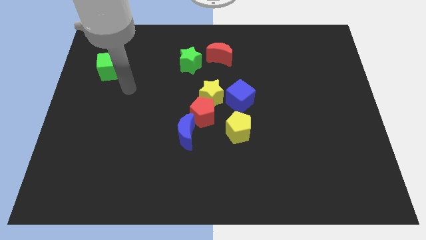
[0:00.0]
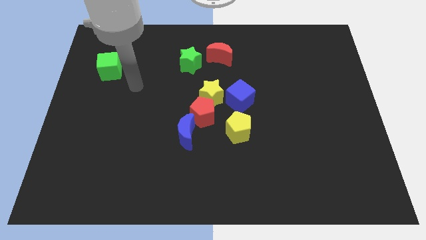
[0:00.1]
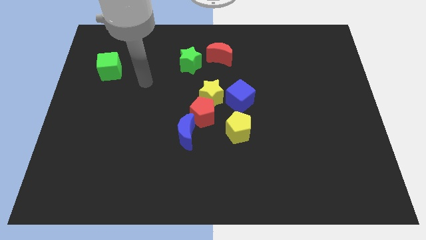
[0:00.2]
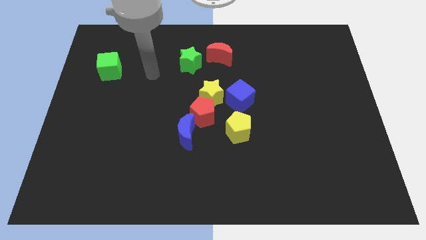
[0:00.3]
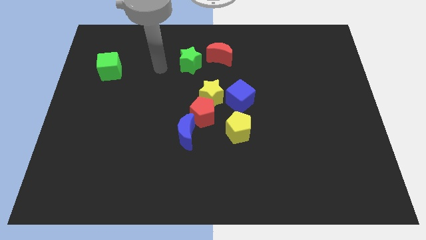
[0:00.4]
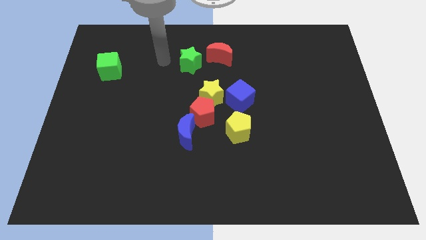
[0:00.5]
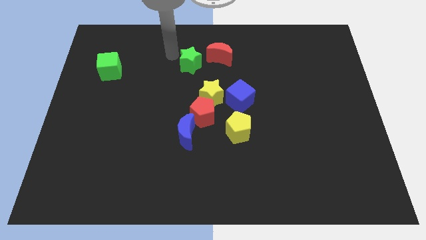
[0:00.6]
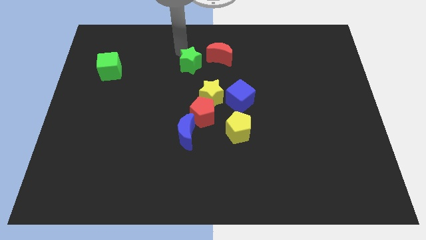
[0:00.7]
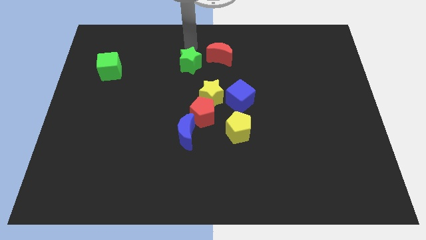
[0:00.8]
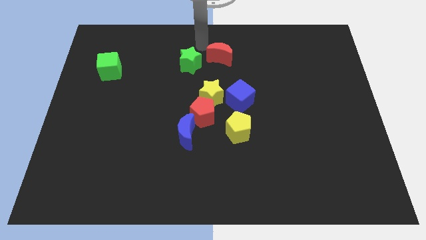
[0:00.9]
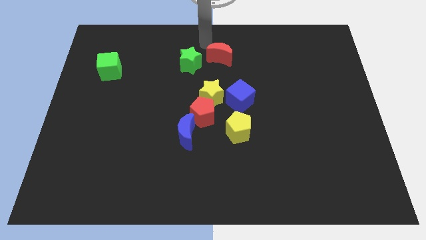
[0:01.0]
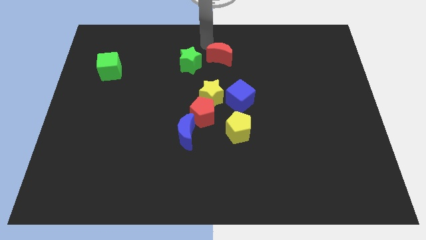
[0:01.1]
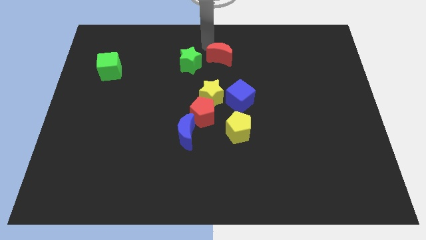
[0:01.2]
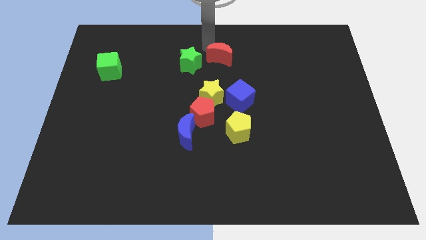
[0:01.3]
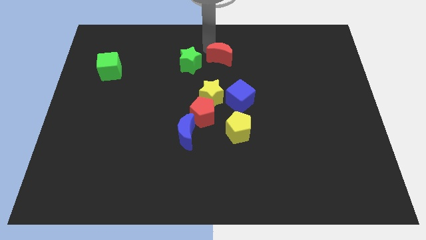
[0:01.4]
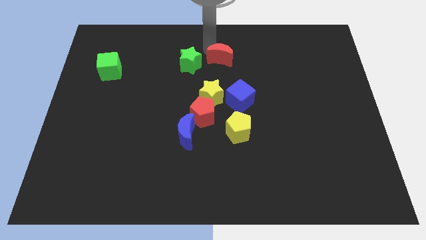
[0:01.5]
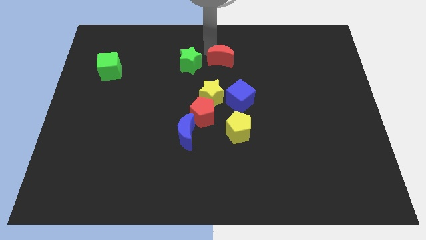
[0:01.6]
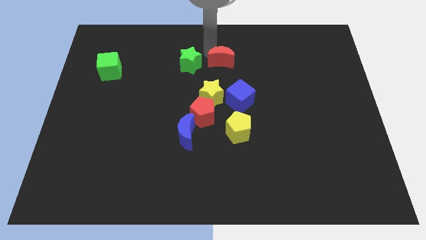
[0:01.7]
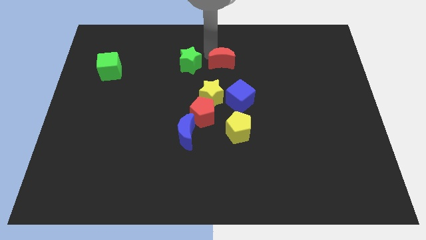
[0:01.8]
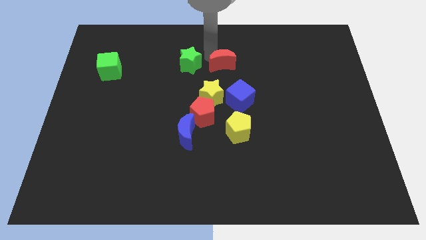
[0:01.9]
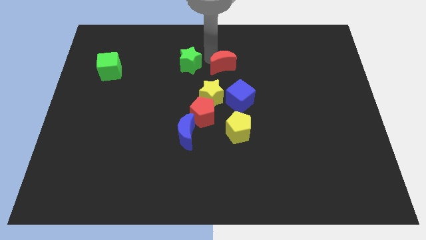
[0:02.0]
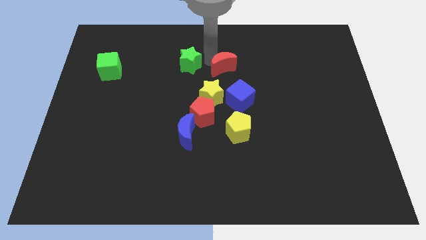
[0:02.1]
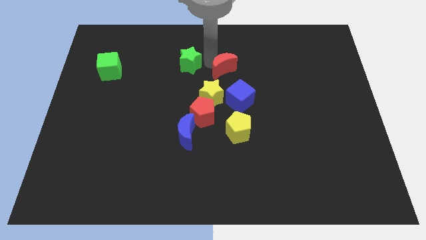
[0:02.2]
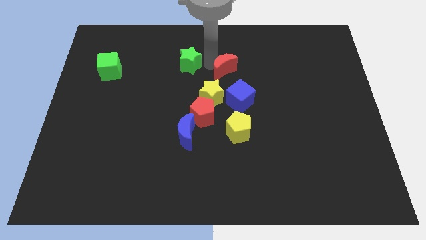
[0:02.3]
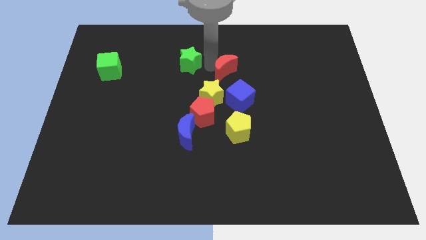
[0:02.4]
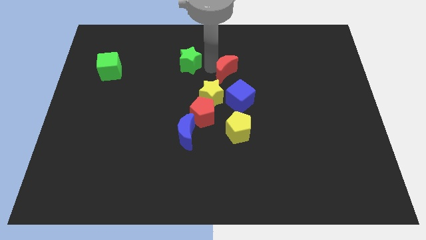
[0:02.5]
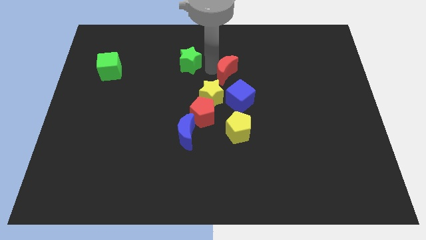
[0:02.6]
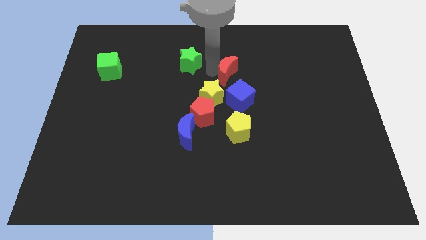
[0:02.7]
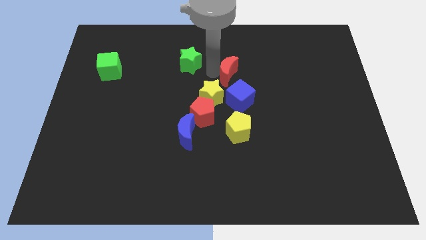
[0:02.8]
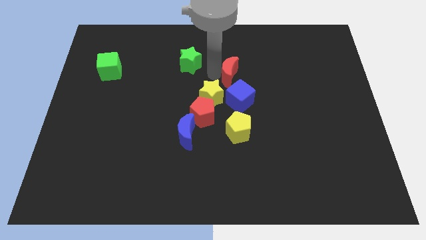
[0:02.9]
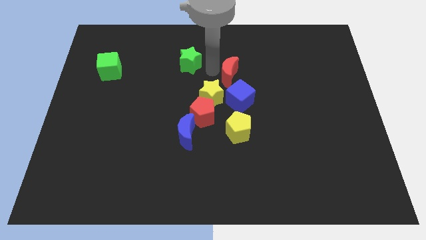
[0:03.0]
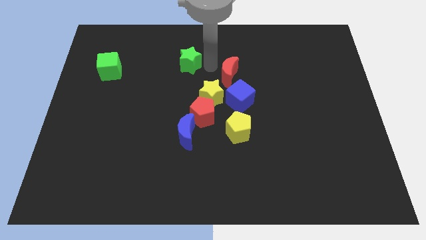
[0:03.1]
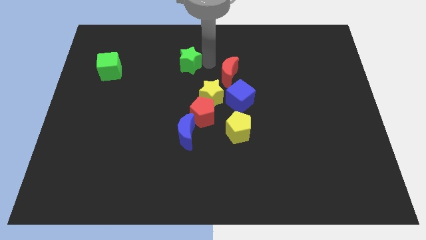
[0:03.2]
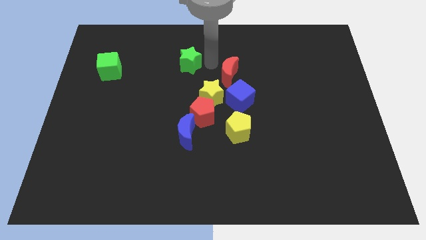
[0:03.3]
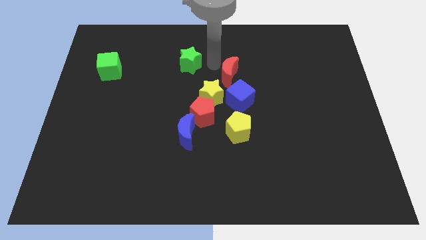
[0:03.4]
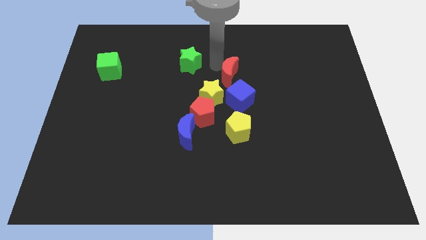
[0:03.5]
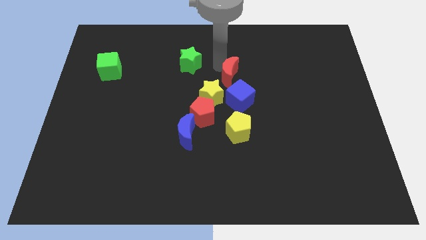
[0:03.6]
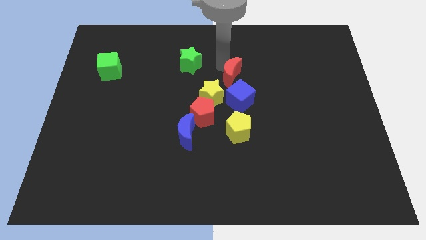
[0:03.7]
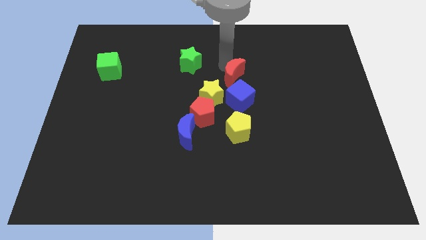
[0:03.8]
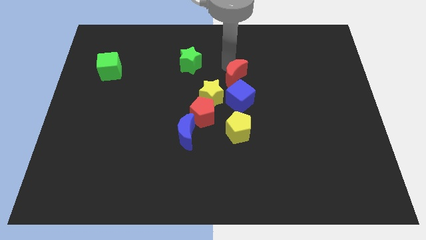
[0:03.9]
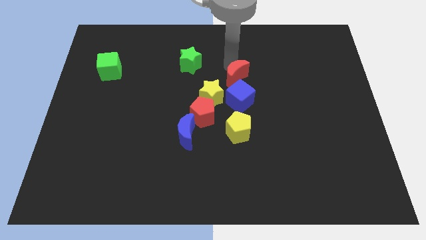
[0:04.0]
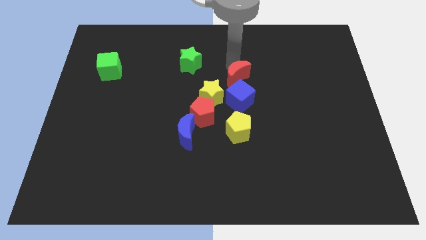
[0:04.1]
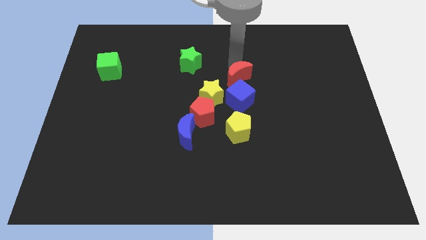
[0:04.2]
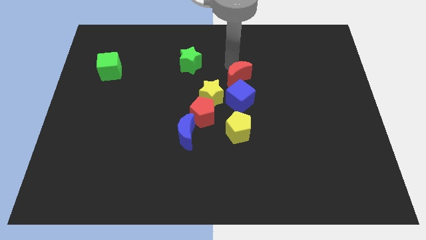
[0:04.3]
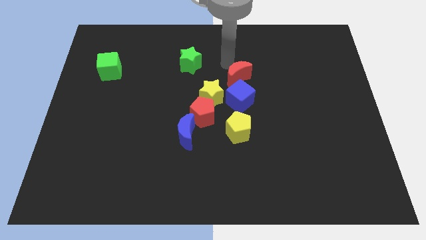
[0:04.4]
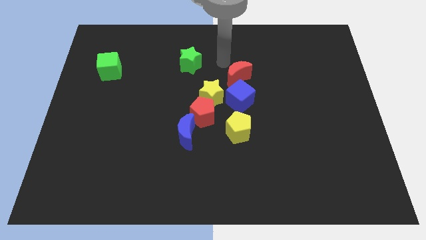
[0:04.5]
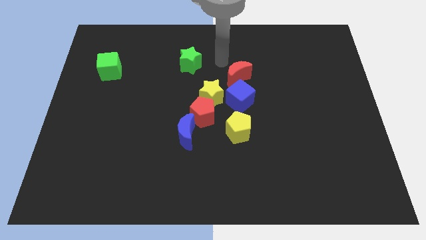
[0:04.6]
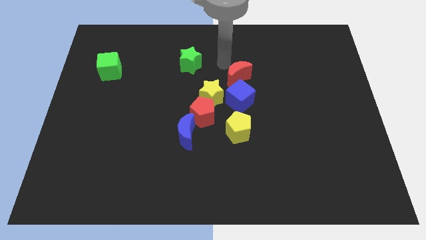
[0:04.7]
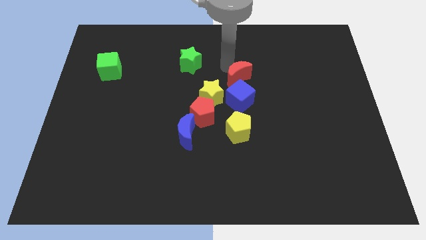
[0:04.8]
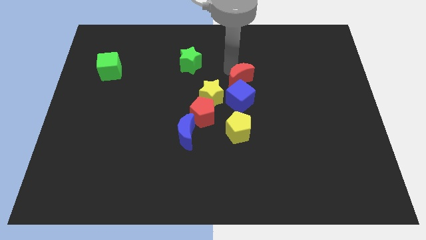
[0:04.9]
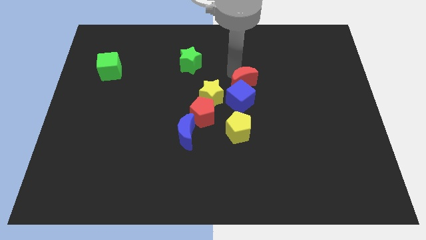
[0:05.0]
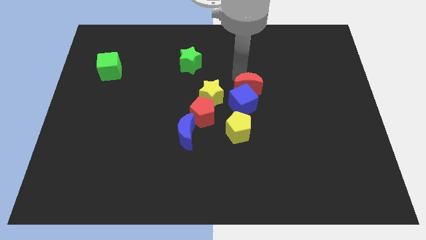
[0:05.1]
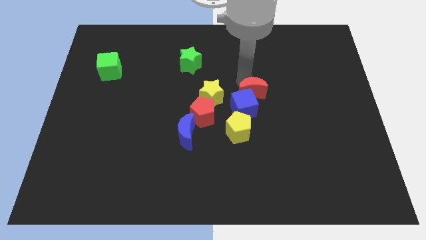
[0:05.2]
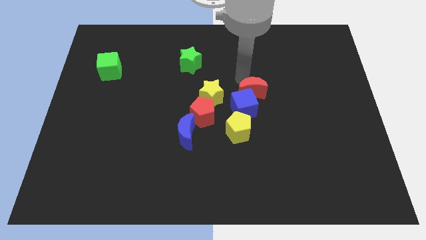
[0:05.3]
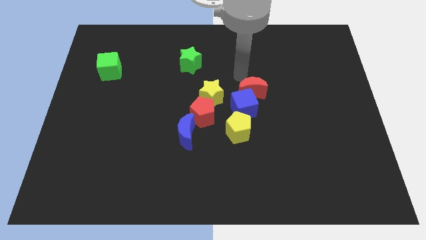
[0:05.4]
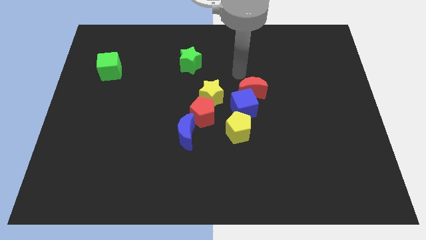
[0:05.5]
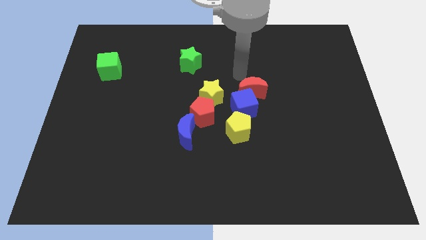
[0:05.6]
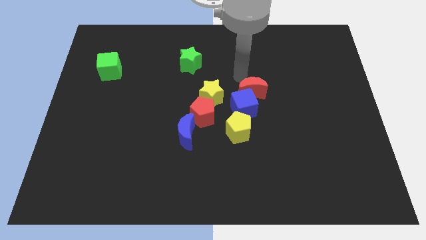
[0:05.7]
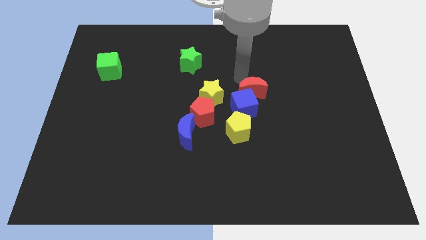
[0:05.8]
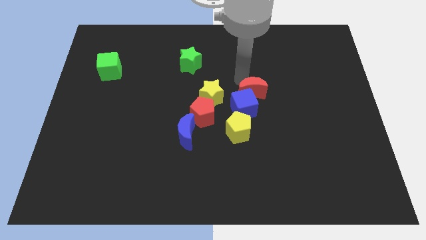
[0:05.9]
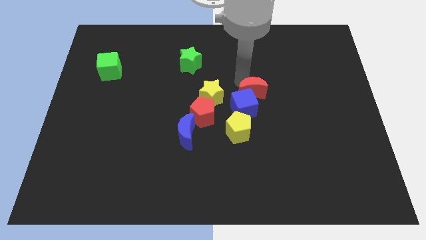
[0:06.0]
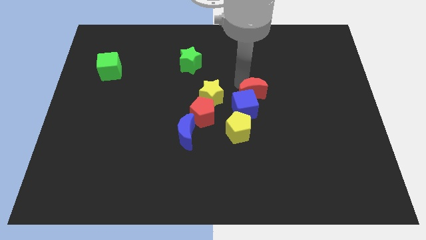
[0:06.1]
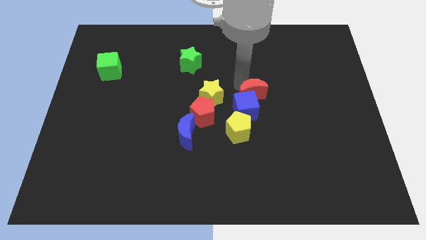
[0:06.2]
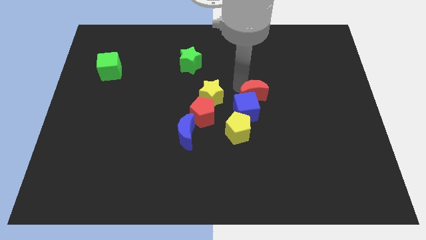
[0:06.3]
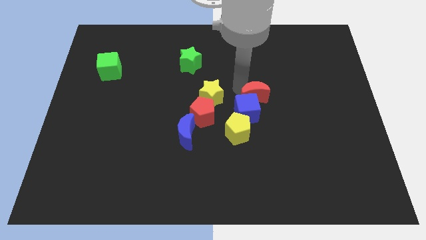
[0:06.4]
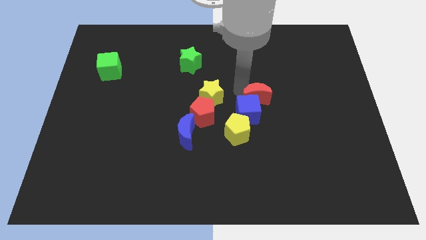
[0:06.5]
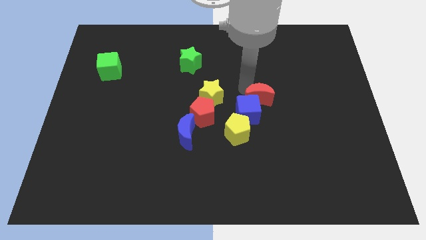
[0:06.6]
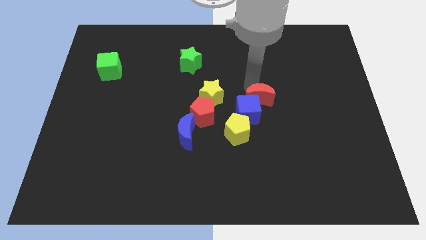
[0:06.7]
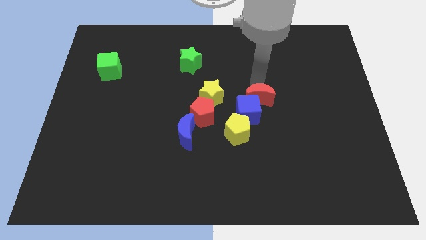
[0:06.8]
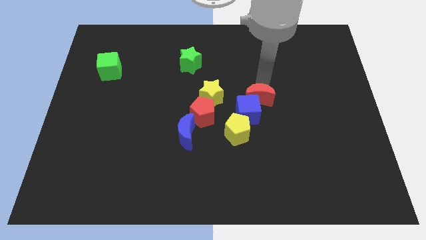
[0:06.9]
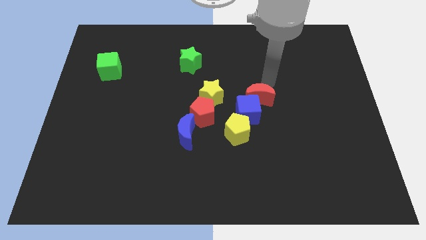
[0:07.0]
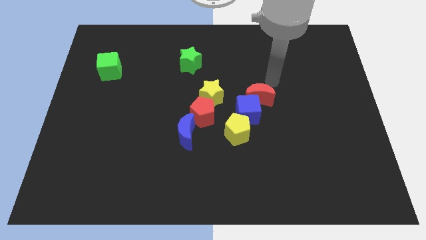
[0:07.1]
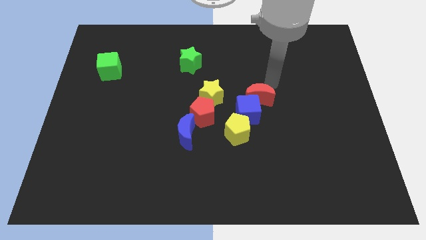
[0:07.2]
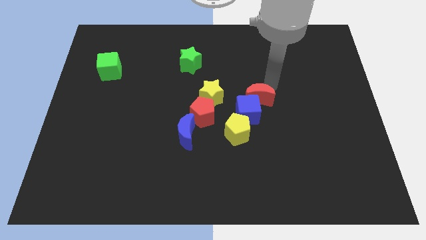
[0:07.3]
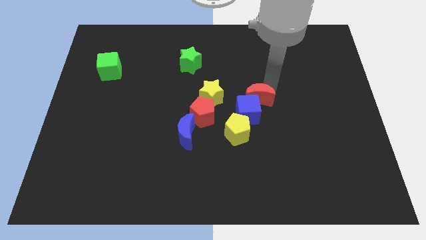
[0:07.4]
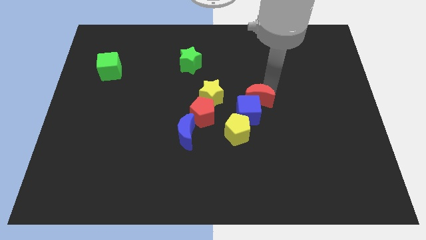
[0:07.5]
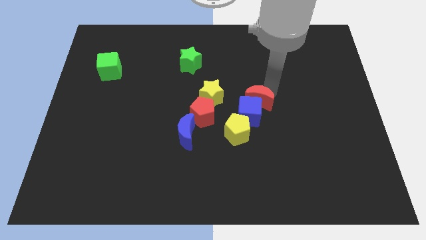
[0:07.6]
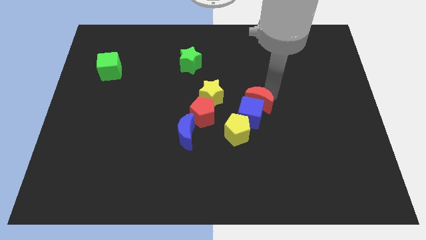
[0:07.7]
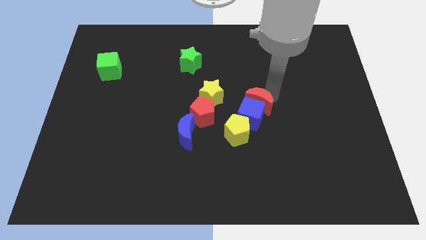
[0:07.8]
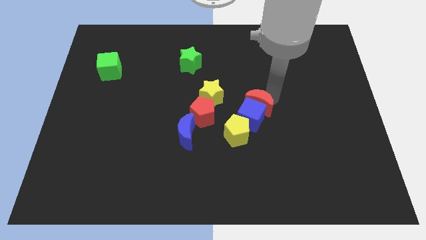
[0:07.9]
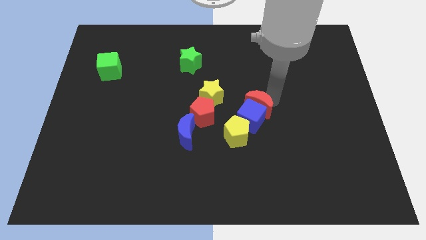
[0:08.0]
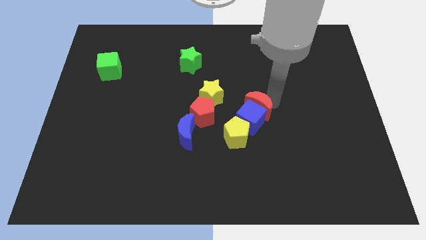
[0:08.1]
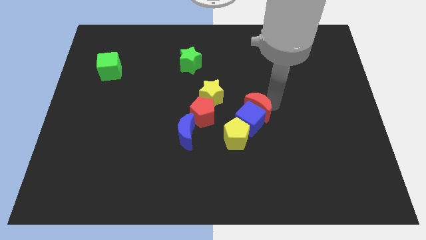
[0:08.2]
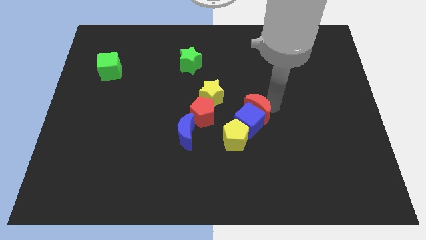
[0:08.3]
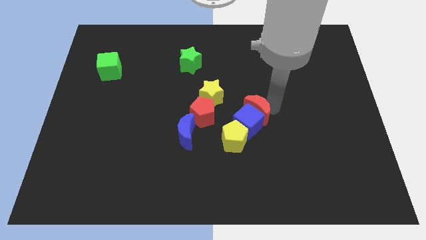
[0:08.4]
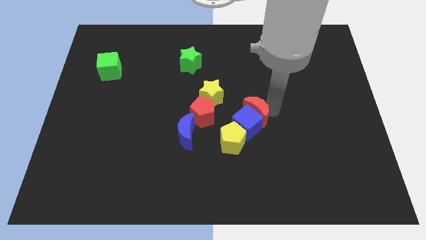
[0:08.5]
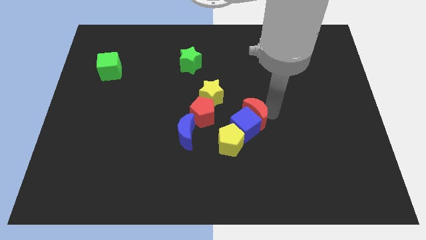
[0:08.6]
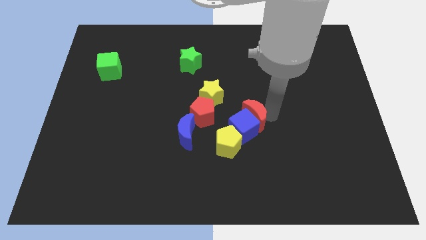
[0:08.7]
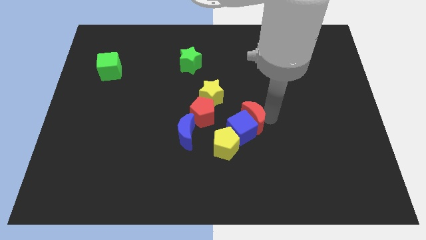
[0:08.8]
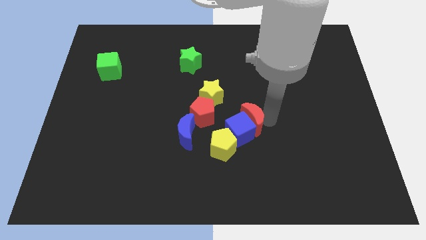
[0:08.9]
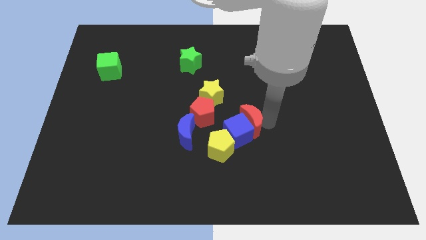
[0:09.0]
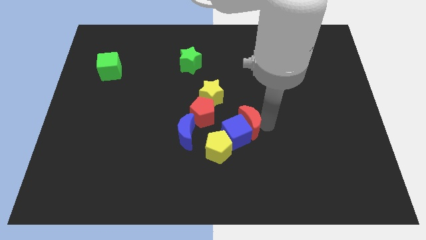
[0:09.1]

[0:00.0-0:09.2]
push the red moon down
